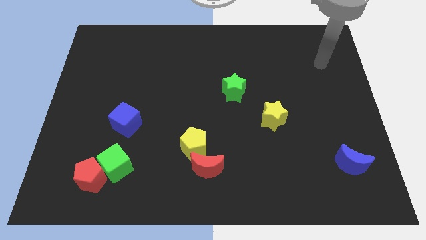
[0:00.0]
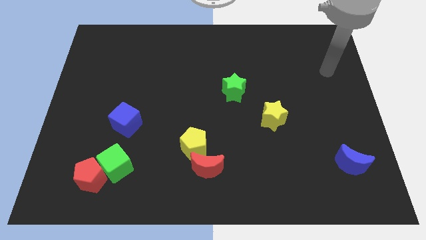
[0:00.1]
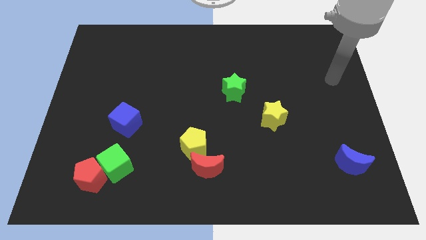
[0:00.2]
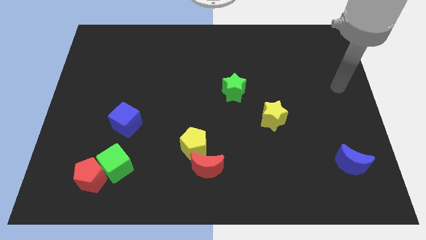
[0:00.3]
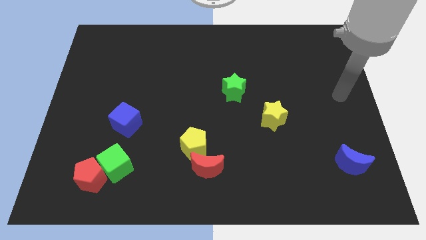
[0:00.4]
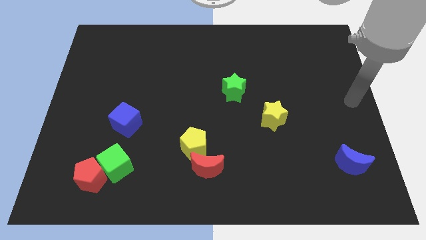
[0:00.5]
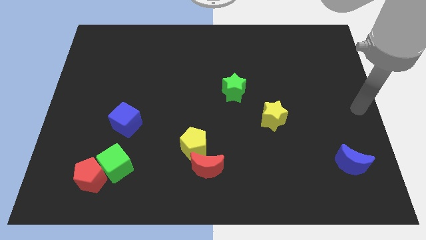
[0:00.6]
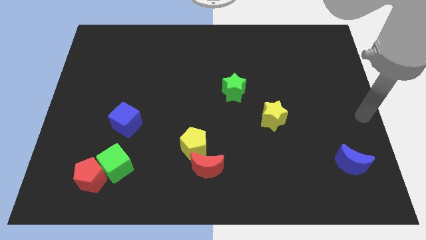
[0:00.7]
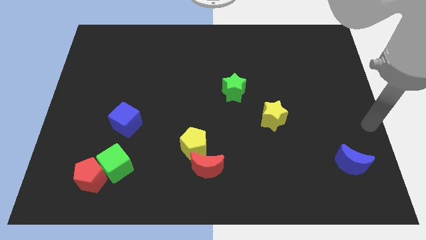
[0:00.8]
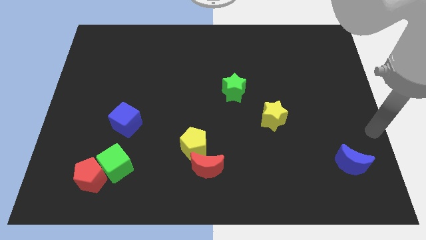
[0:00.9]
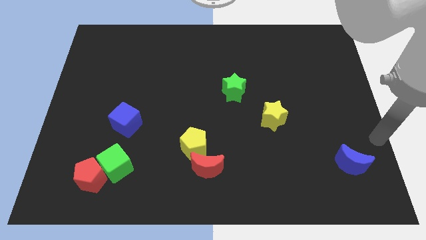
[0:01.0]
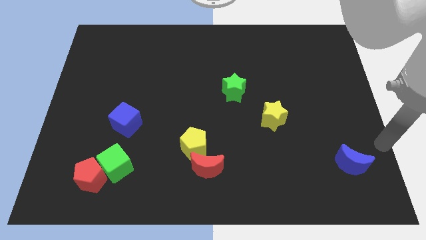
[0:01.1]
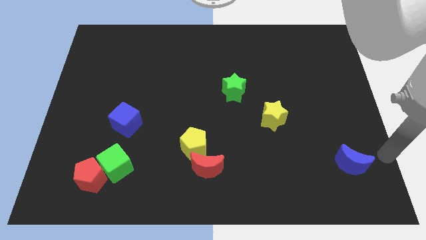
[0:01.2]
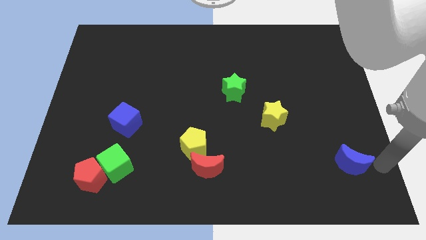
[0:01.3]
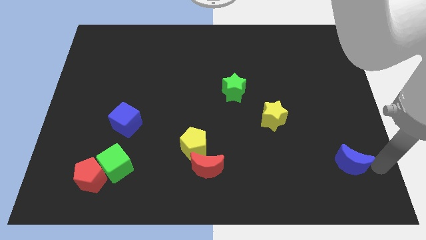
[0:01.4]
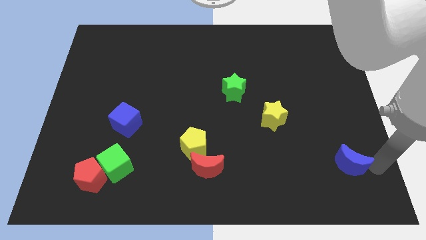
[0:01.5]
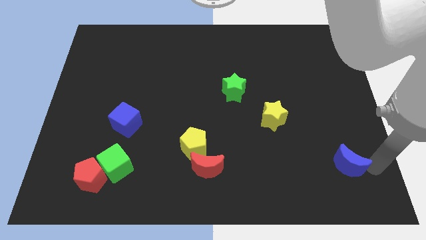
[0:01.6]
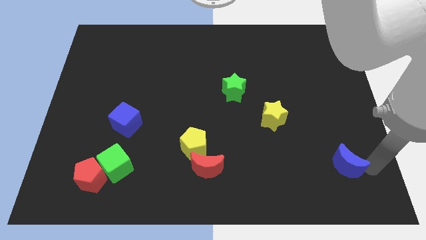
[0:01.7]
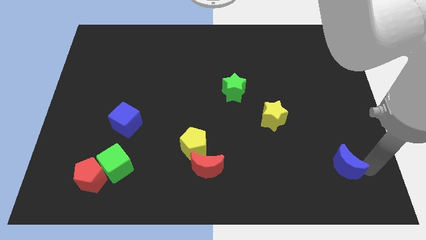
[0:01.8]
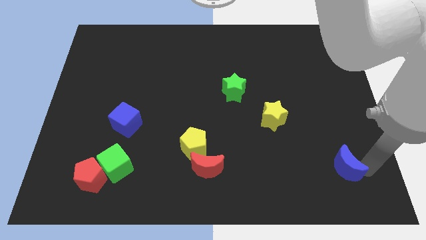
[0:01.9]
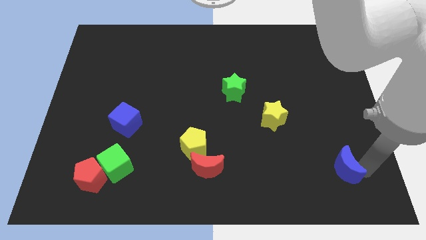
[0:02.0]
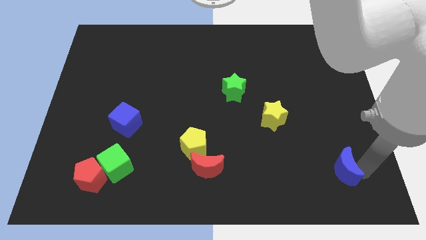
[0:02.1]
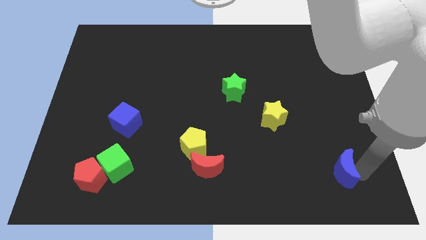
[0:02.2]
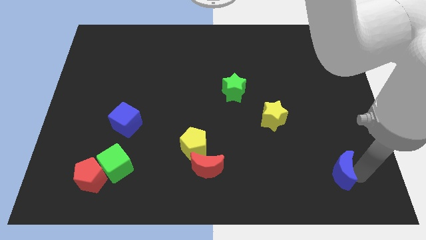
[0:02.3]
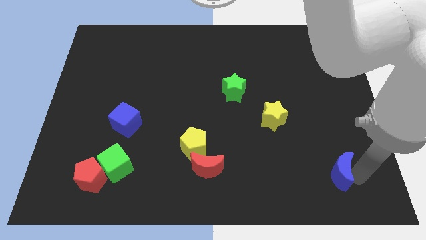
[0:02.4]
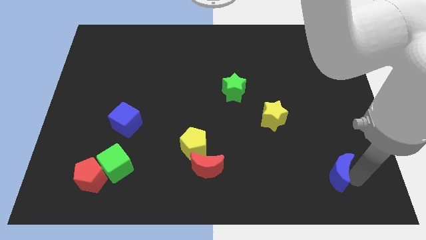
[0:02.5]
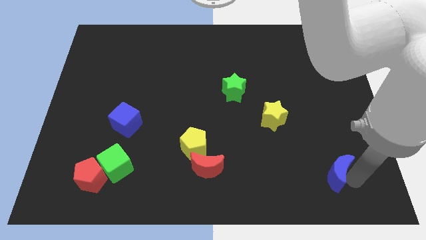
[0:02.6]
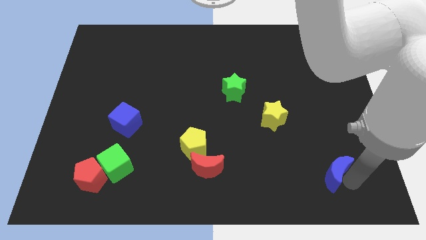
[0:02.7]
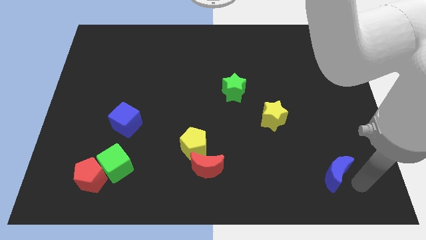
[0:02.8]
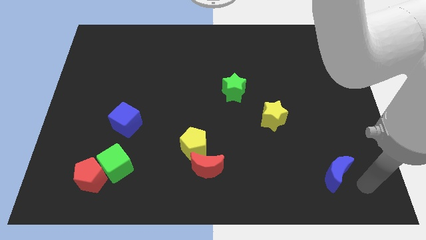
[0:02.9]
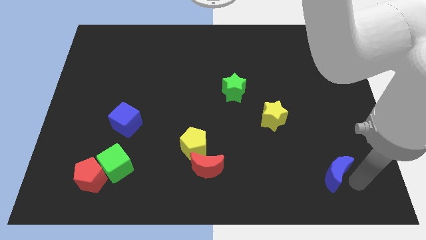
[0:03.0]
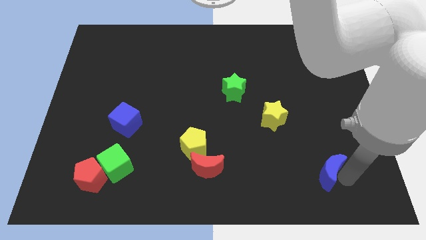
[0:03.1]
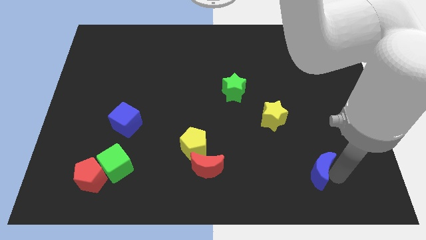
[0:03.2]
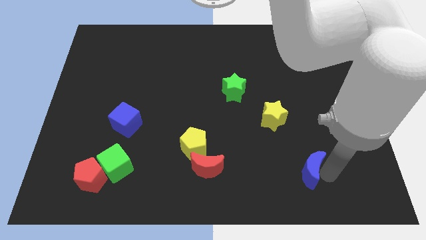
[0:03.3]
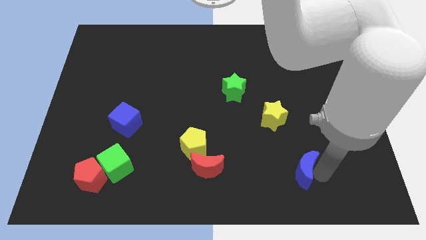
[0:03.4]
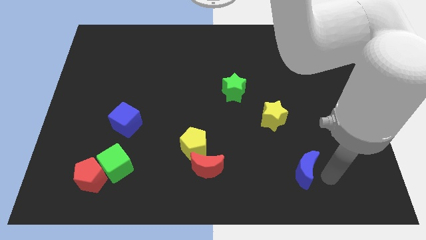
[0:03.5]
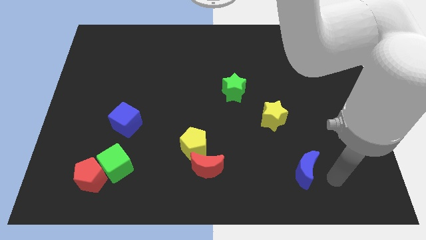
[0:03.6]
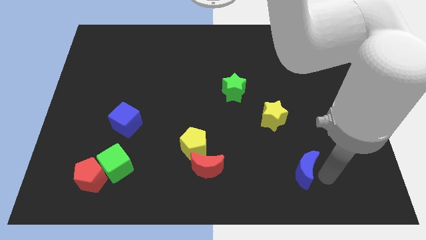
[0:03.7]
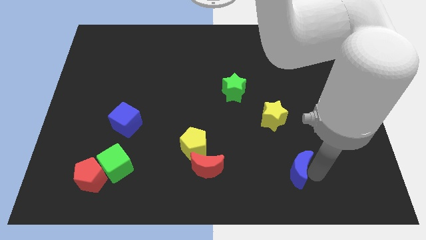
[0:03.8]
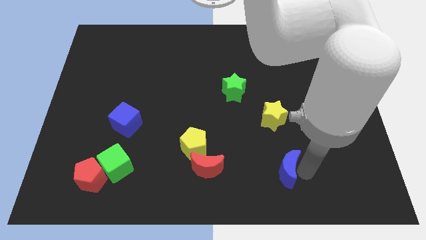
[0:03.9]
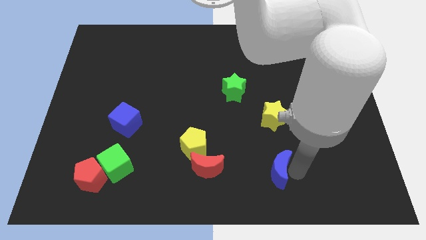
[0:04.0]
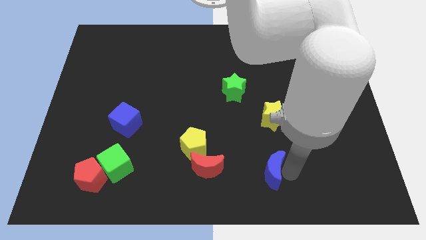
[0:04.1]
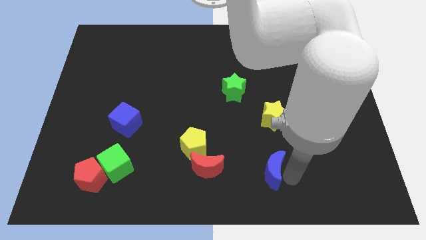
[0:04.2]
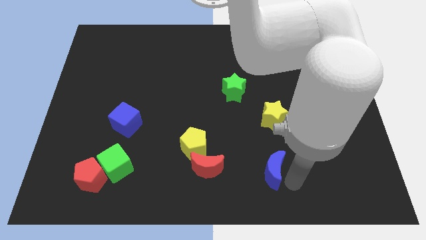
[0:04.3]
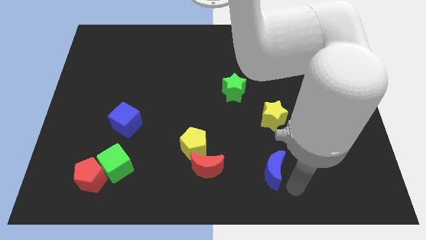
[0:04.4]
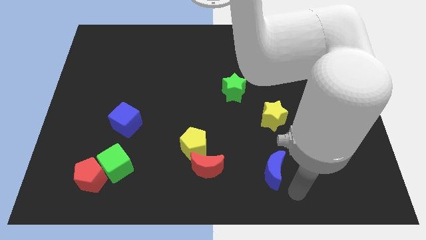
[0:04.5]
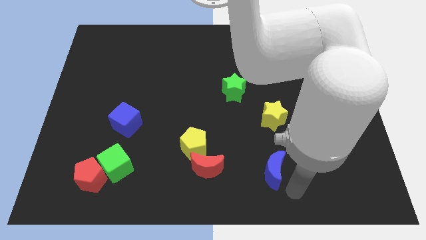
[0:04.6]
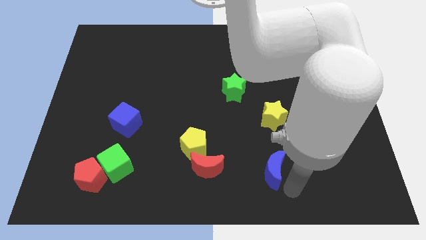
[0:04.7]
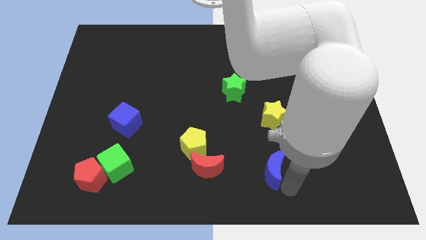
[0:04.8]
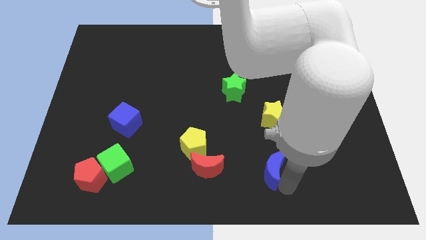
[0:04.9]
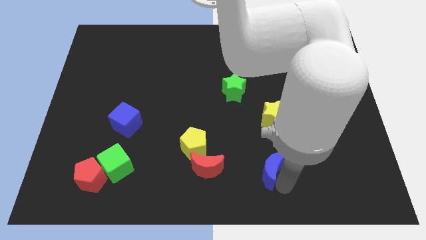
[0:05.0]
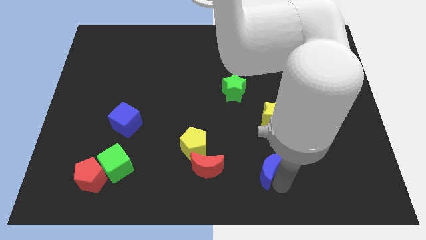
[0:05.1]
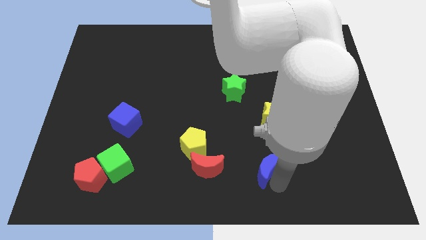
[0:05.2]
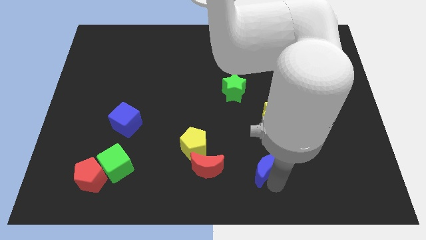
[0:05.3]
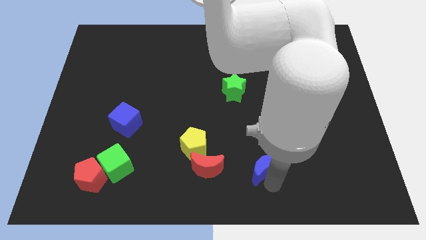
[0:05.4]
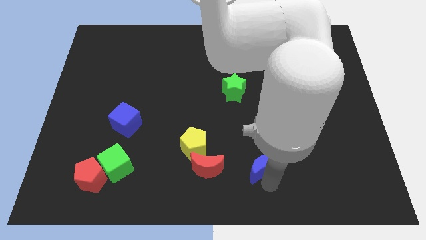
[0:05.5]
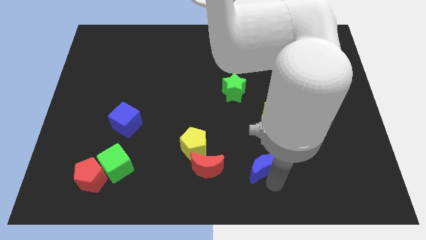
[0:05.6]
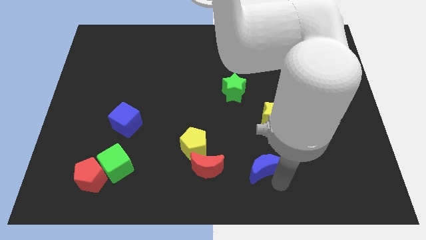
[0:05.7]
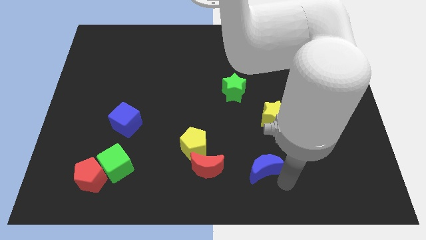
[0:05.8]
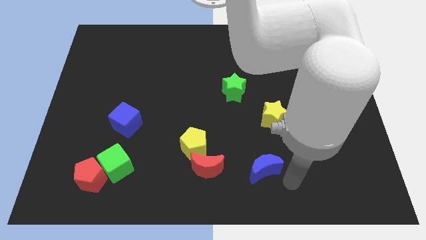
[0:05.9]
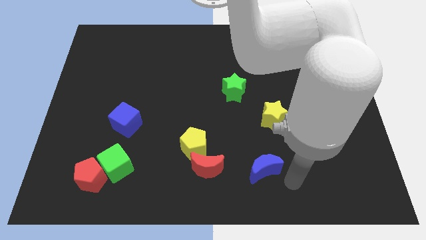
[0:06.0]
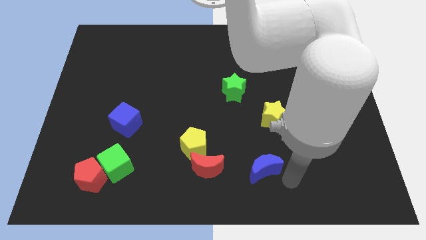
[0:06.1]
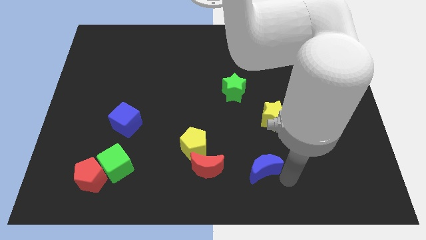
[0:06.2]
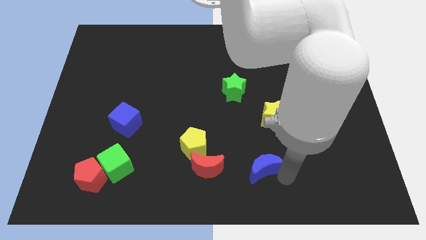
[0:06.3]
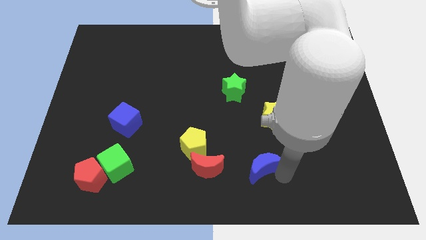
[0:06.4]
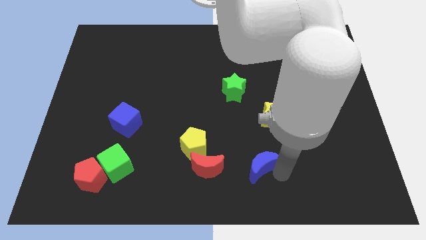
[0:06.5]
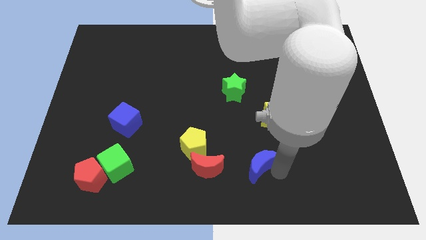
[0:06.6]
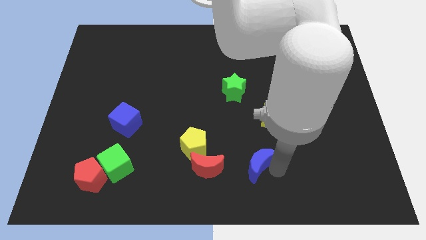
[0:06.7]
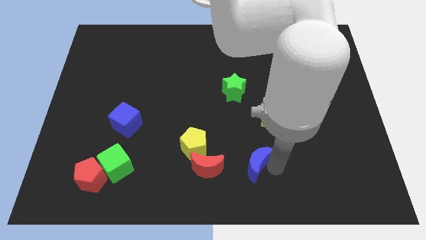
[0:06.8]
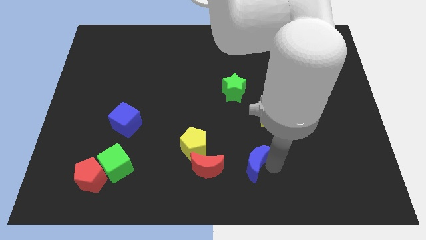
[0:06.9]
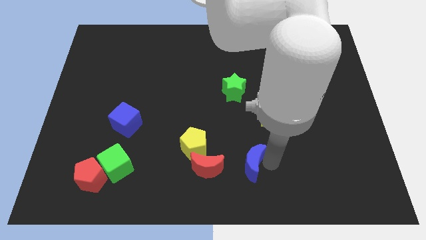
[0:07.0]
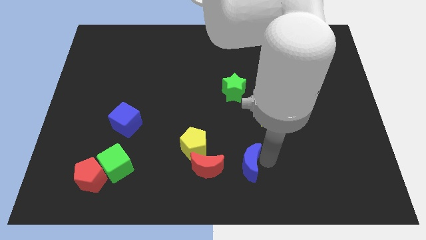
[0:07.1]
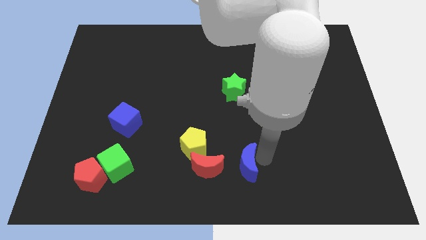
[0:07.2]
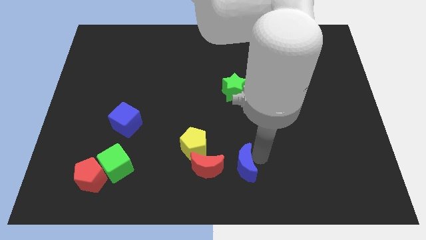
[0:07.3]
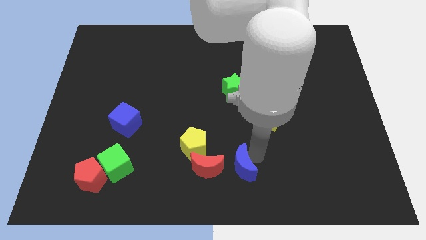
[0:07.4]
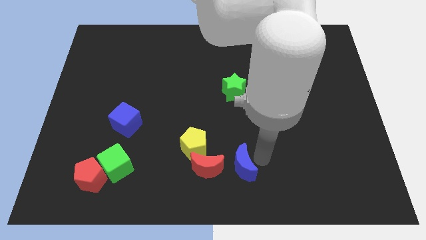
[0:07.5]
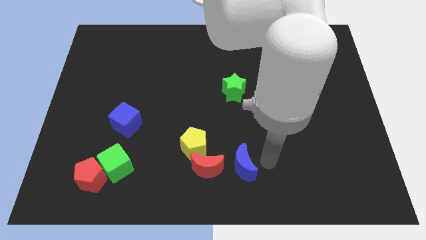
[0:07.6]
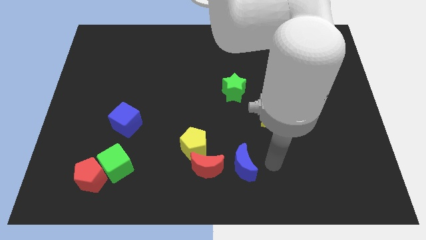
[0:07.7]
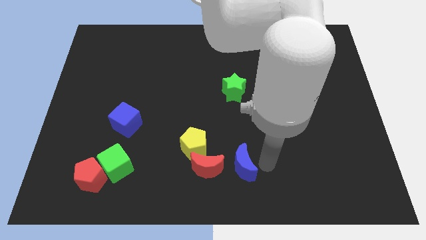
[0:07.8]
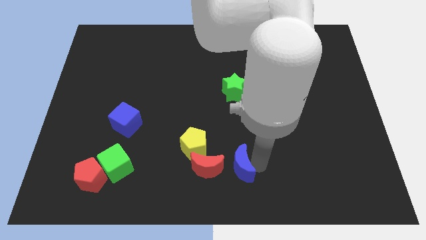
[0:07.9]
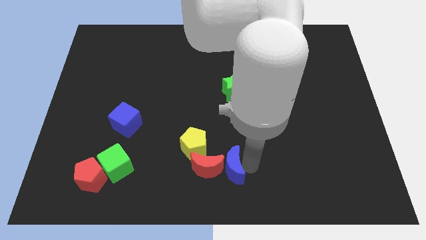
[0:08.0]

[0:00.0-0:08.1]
push the blue moon towards the red moon
